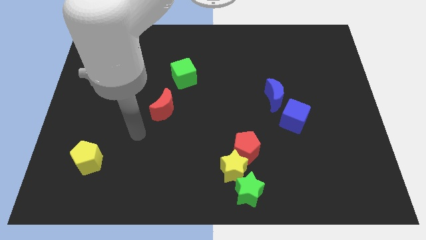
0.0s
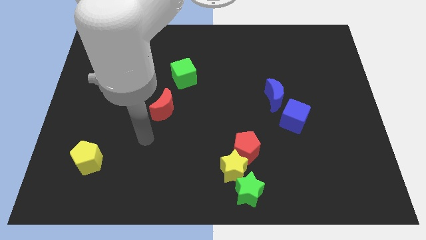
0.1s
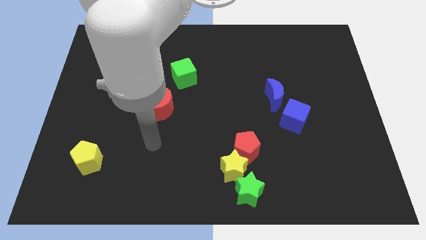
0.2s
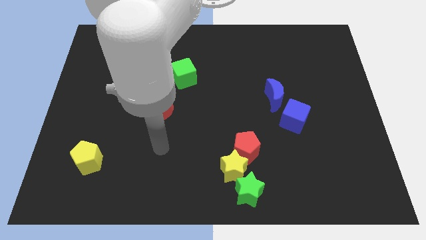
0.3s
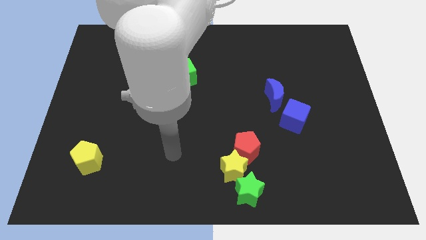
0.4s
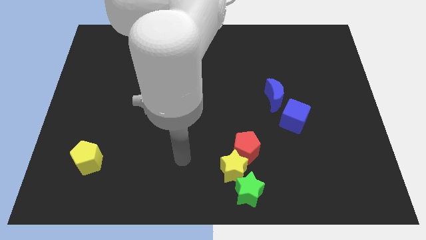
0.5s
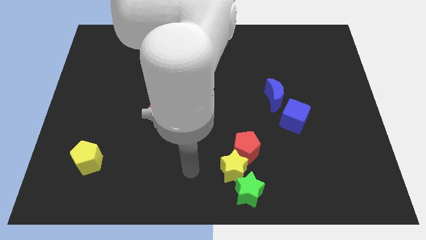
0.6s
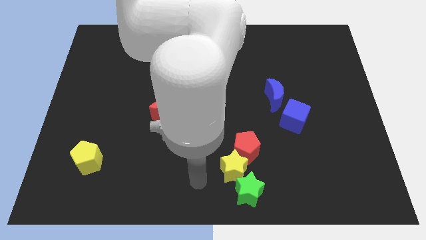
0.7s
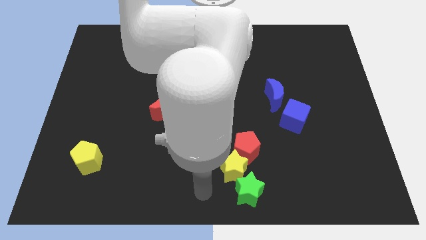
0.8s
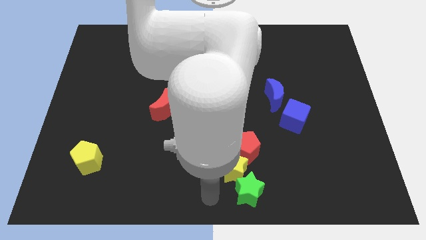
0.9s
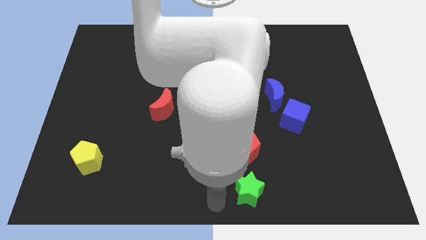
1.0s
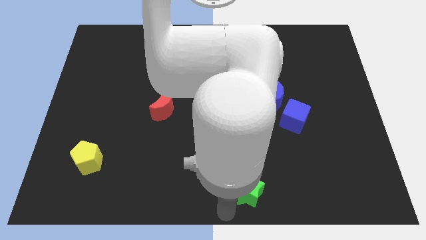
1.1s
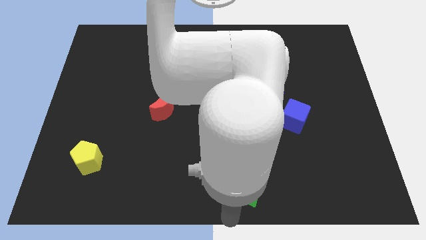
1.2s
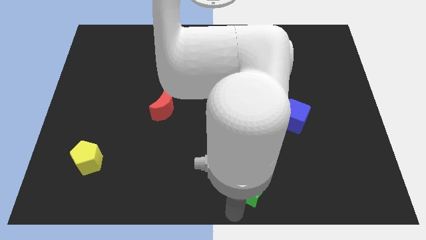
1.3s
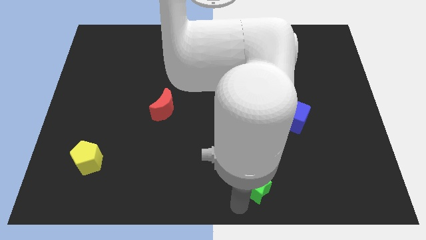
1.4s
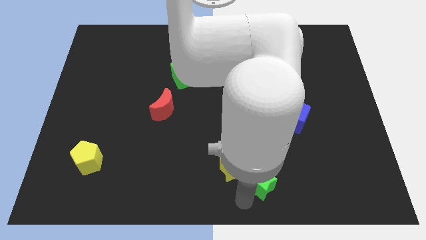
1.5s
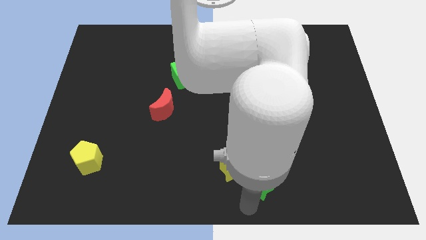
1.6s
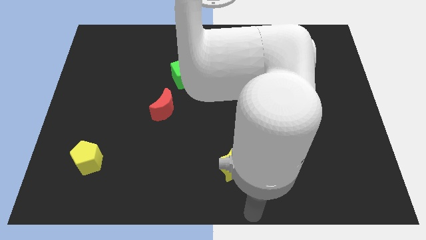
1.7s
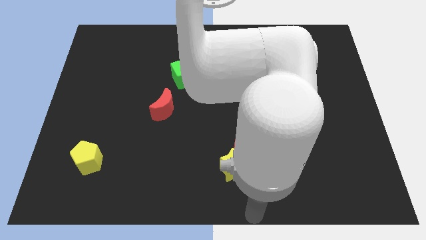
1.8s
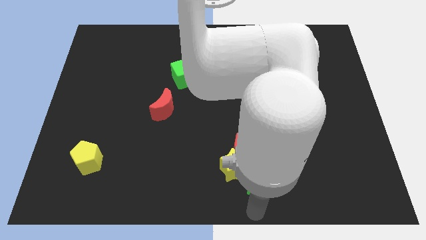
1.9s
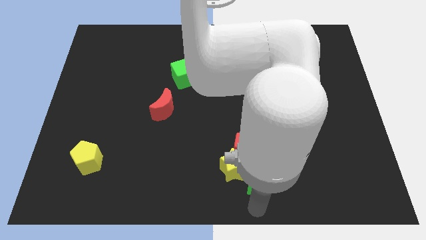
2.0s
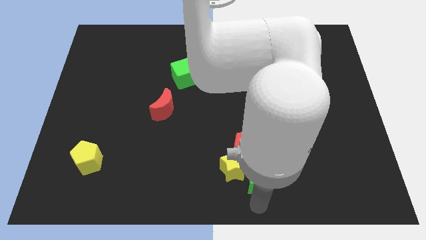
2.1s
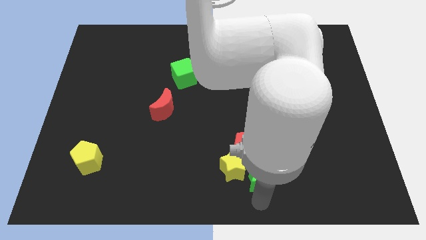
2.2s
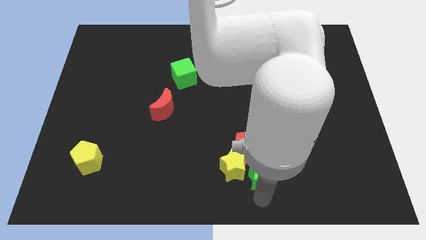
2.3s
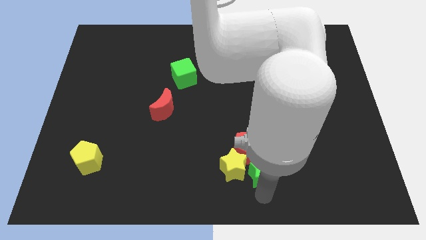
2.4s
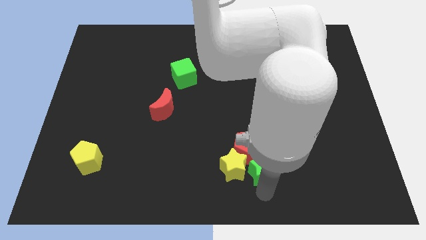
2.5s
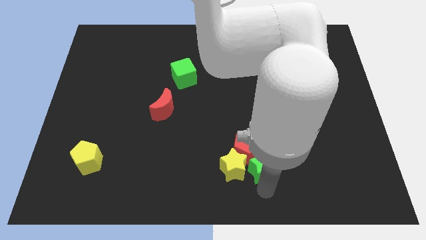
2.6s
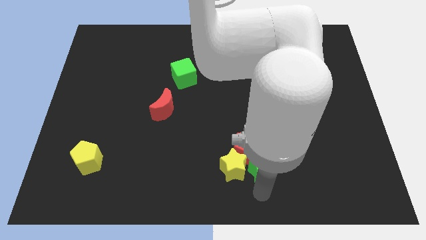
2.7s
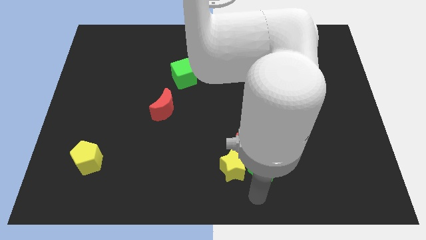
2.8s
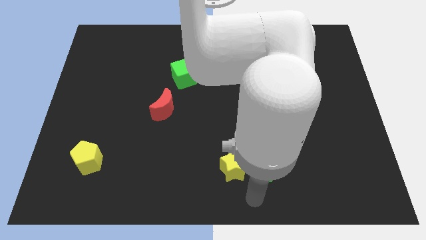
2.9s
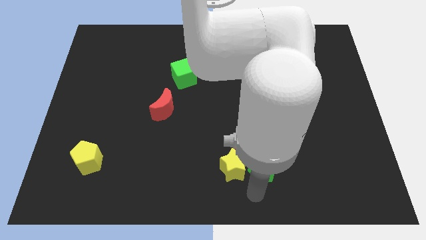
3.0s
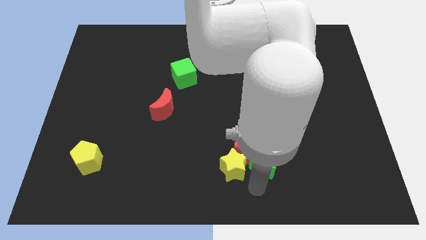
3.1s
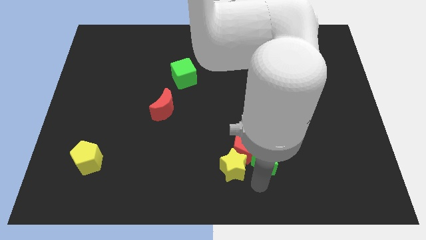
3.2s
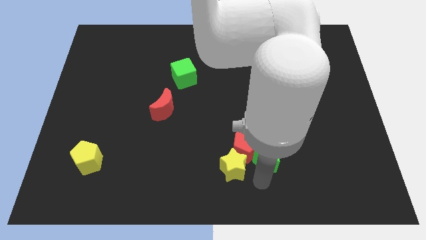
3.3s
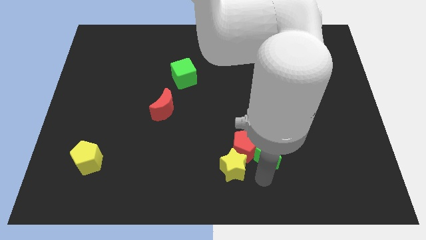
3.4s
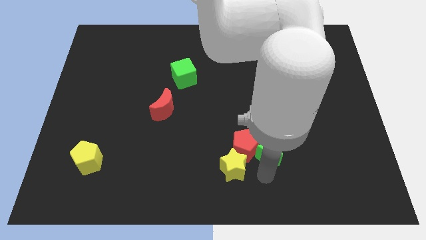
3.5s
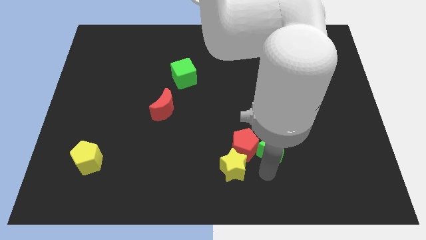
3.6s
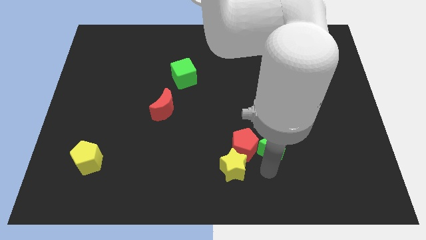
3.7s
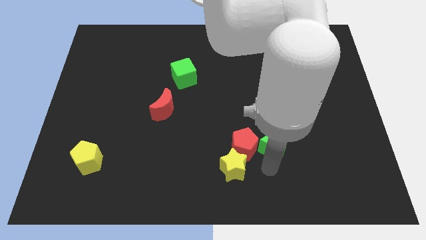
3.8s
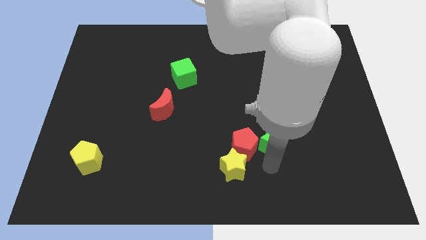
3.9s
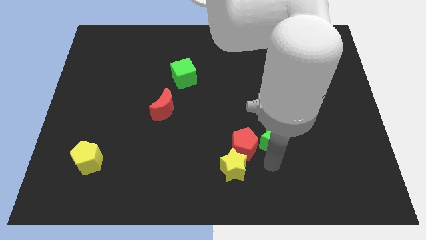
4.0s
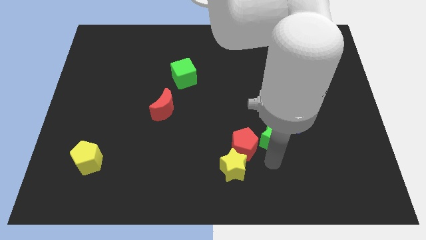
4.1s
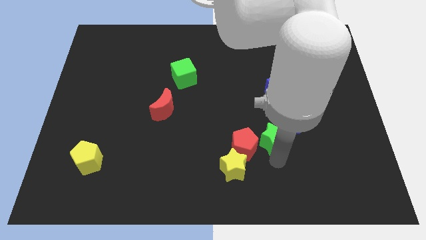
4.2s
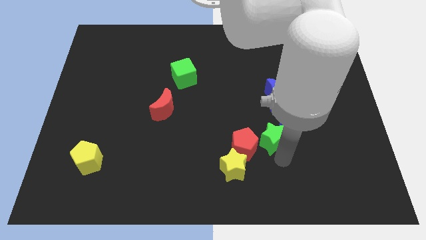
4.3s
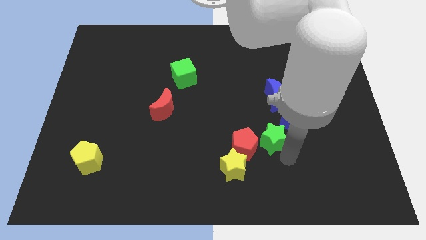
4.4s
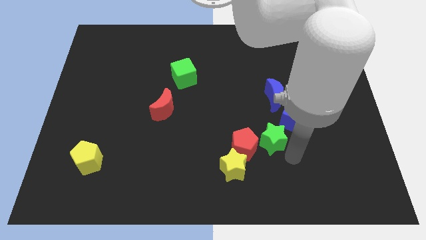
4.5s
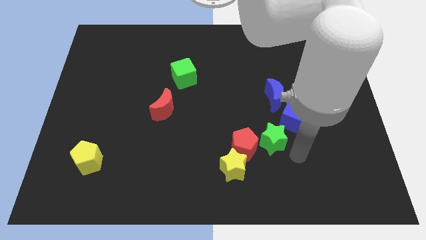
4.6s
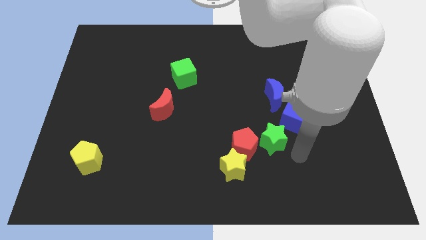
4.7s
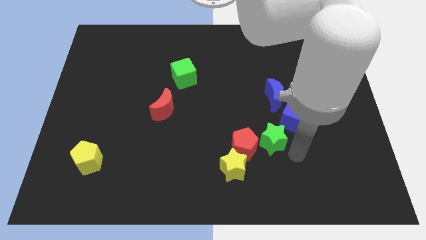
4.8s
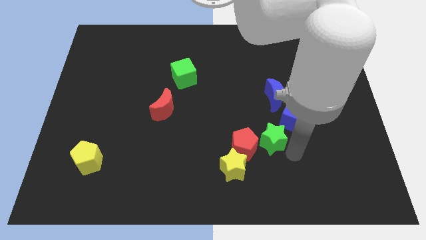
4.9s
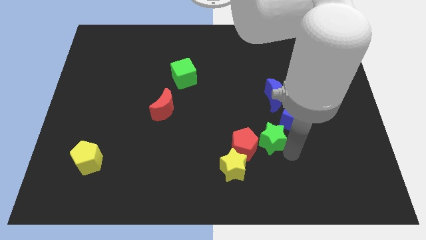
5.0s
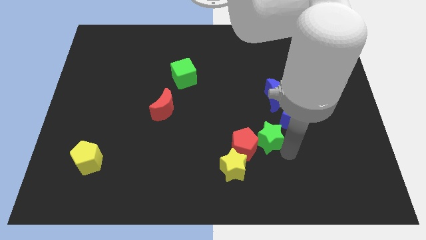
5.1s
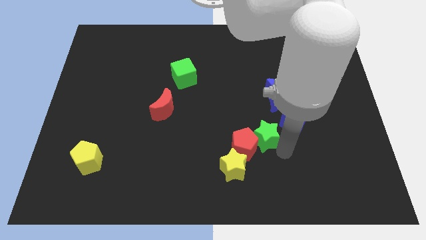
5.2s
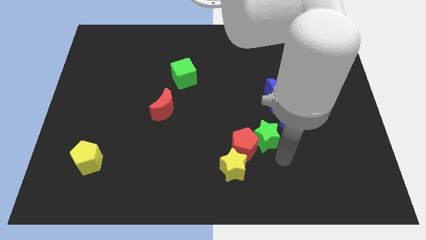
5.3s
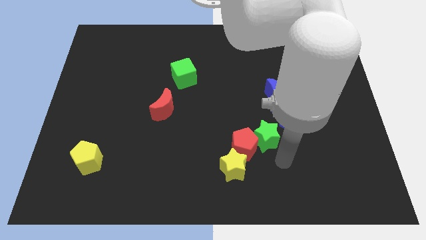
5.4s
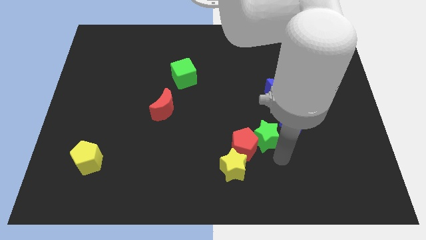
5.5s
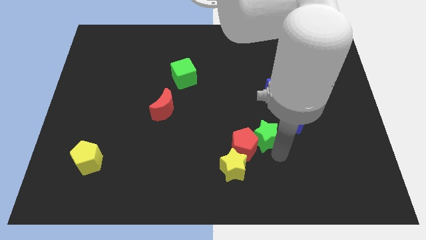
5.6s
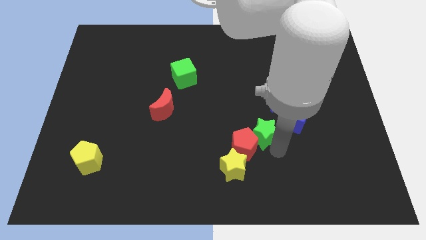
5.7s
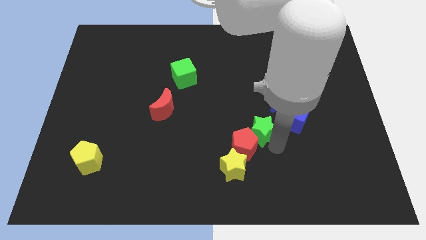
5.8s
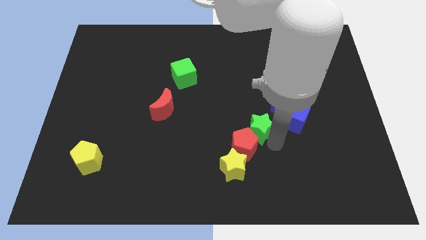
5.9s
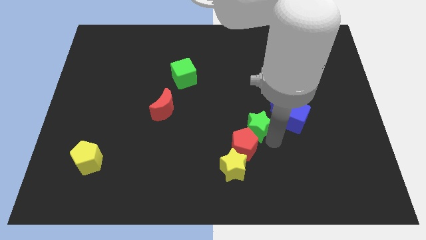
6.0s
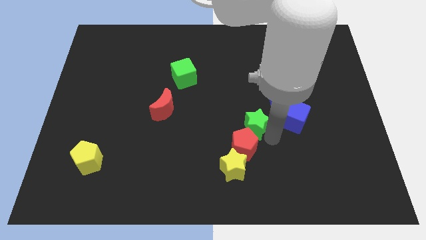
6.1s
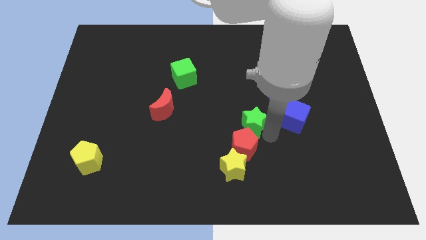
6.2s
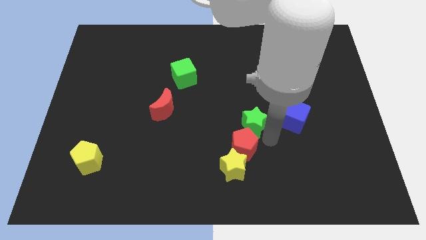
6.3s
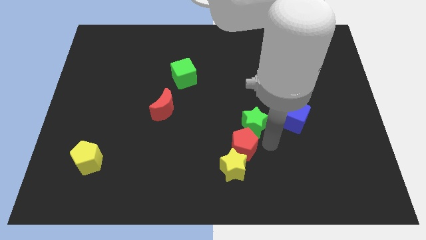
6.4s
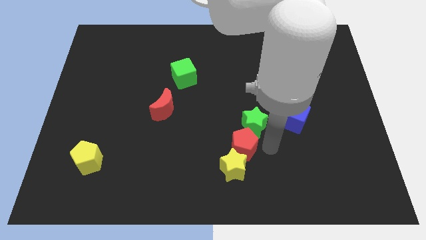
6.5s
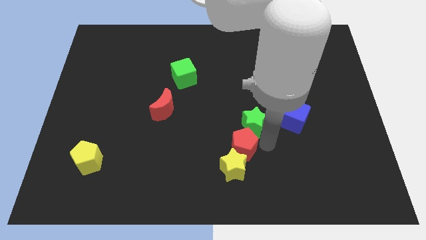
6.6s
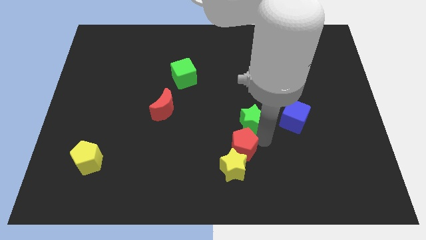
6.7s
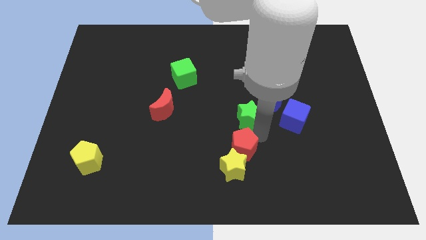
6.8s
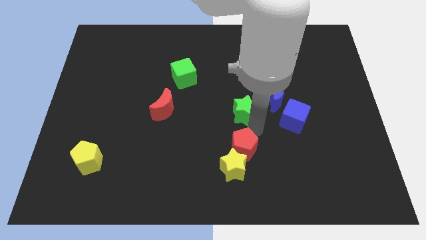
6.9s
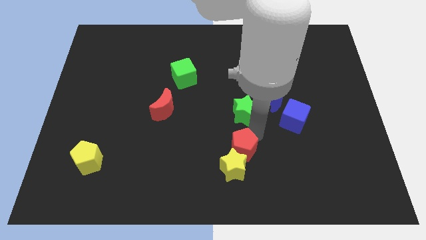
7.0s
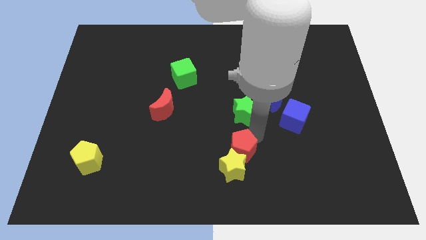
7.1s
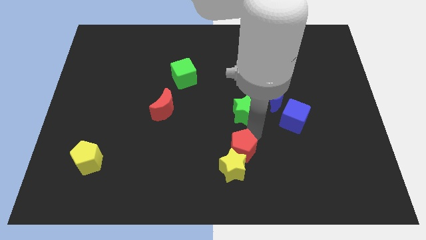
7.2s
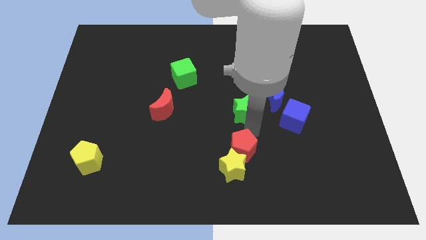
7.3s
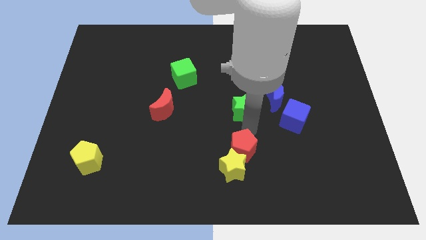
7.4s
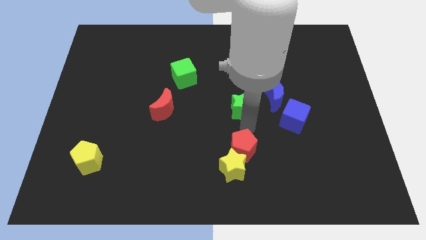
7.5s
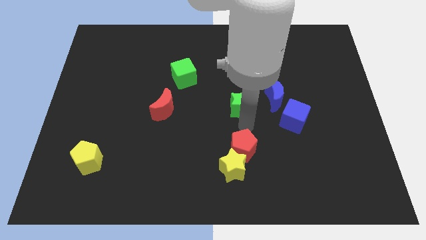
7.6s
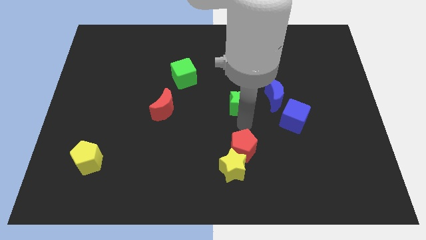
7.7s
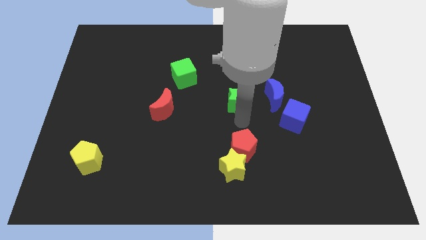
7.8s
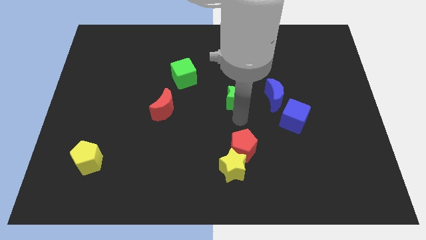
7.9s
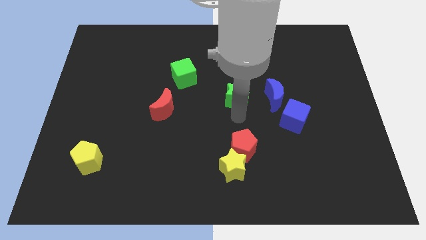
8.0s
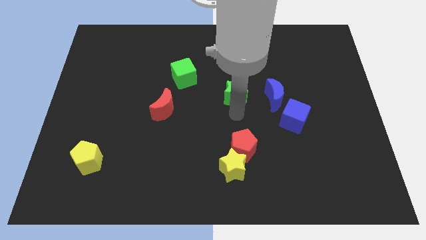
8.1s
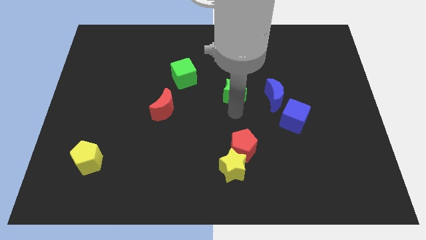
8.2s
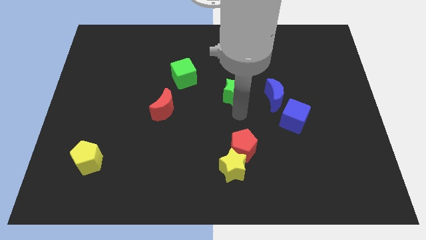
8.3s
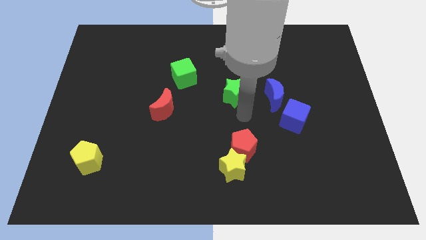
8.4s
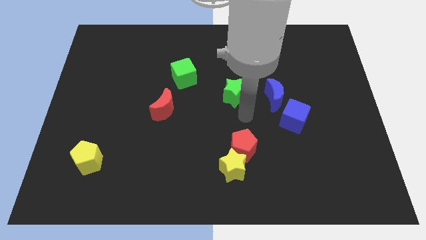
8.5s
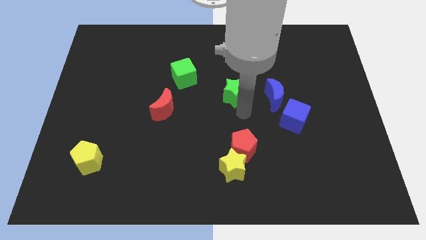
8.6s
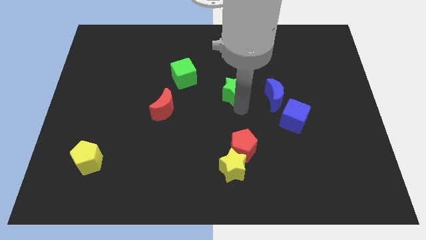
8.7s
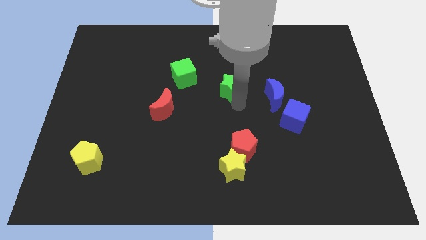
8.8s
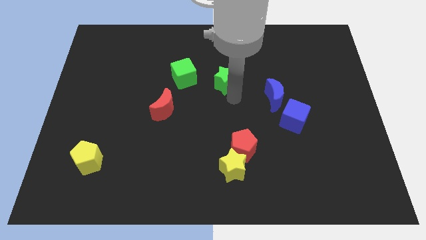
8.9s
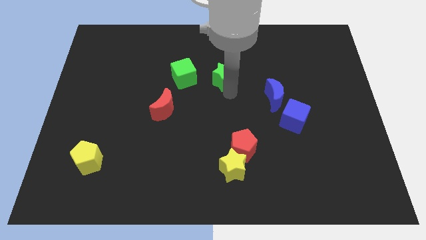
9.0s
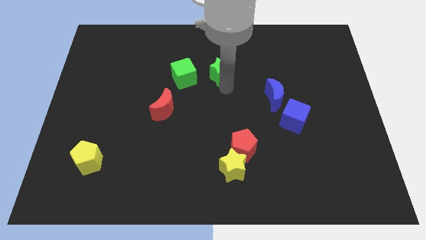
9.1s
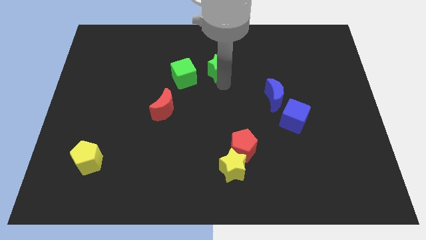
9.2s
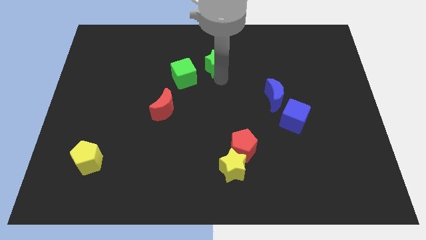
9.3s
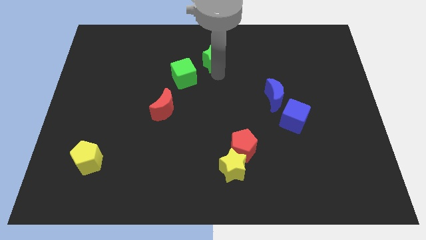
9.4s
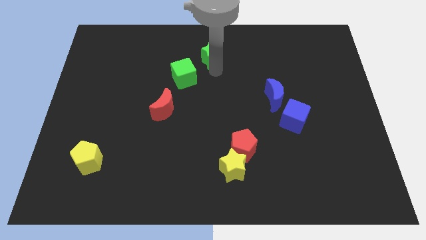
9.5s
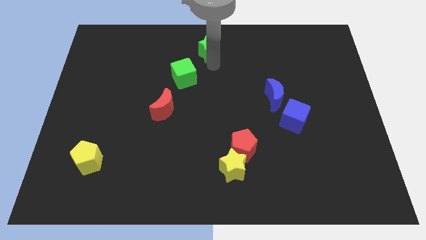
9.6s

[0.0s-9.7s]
put the green star to the towards your base
